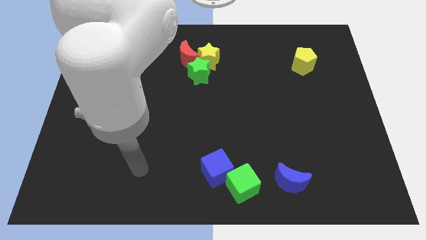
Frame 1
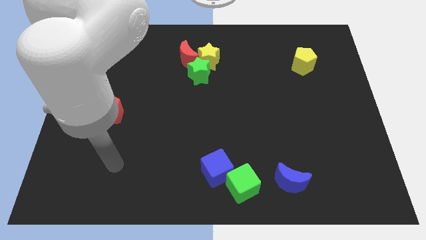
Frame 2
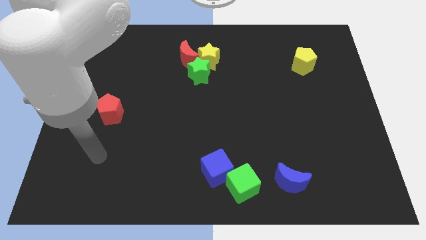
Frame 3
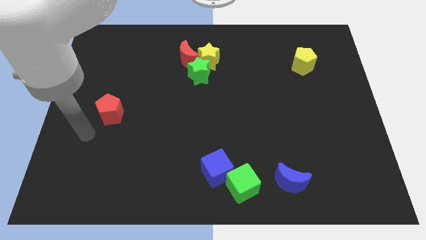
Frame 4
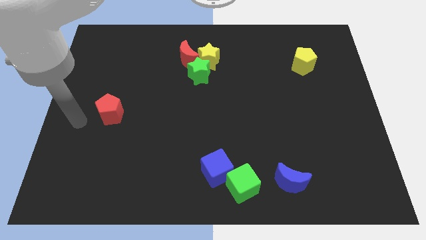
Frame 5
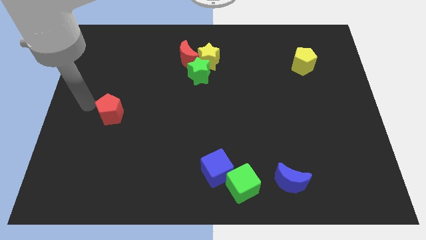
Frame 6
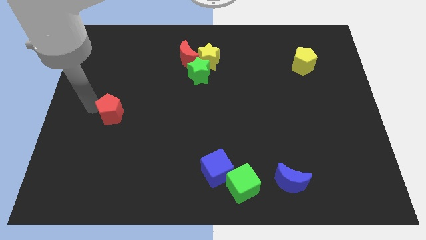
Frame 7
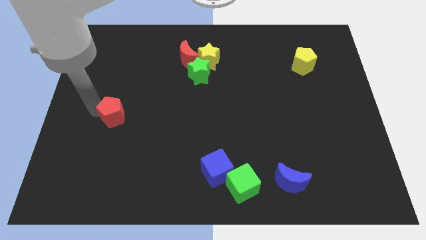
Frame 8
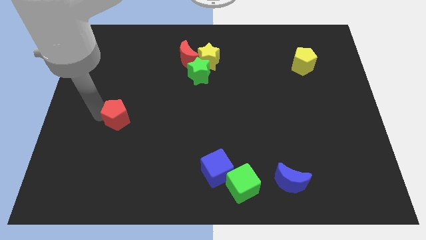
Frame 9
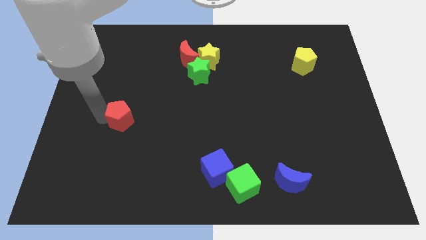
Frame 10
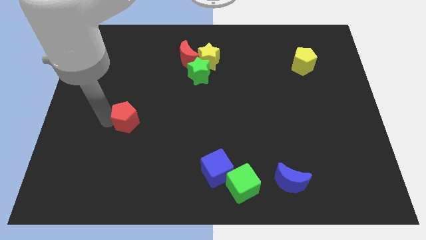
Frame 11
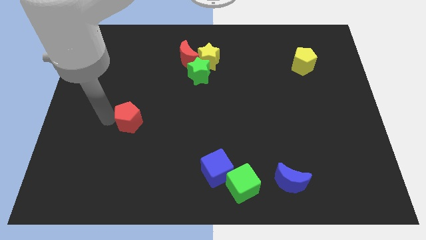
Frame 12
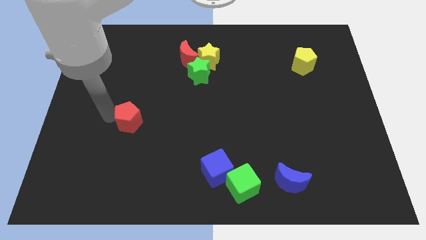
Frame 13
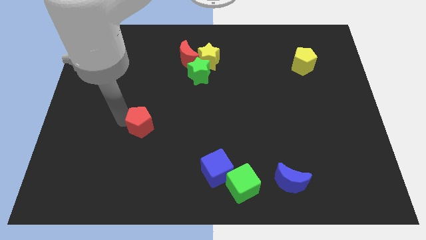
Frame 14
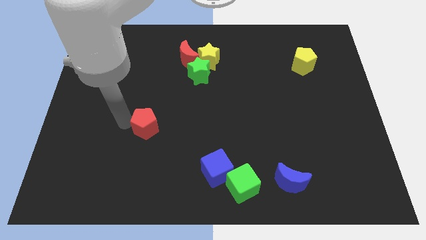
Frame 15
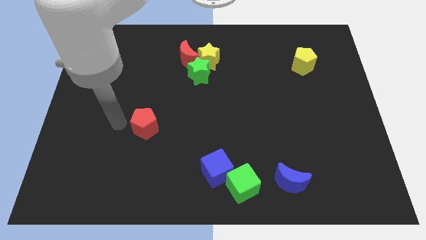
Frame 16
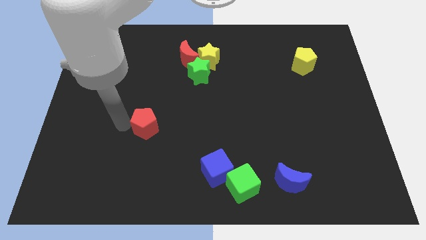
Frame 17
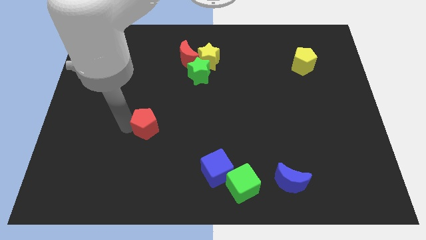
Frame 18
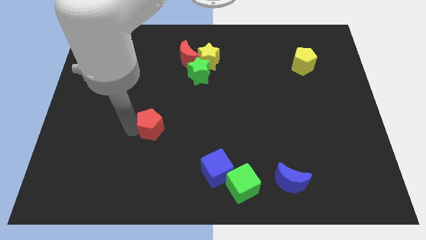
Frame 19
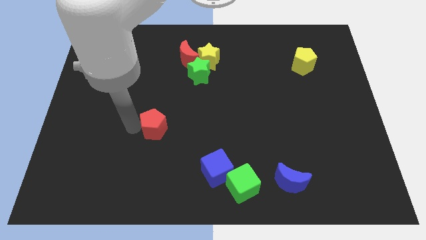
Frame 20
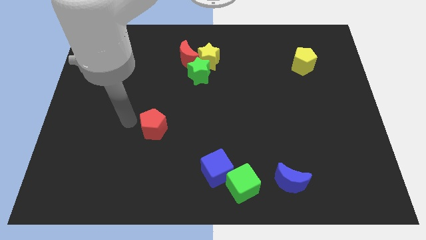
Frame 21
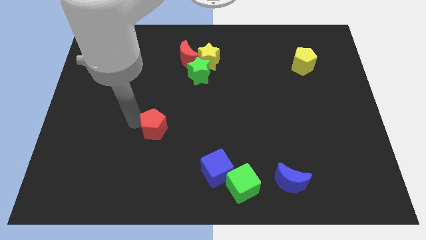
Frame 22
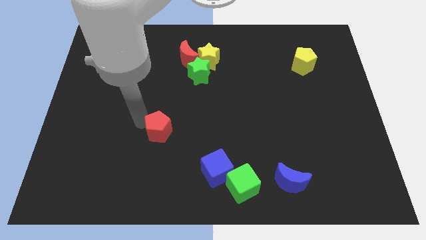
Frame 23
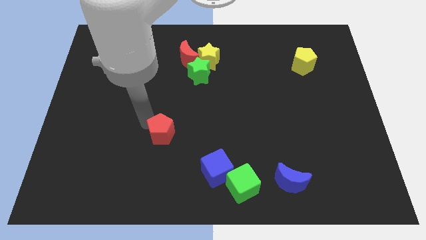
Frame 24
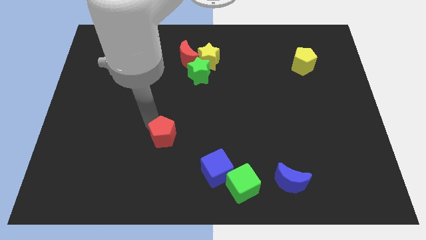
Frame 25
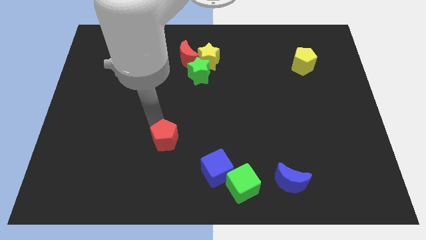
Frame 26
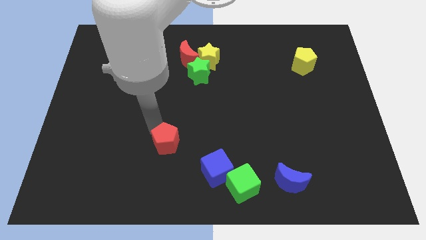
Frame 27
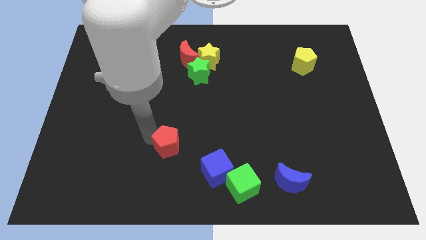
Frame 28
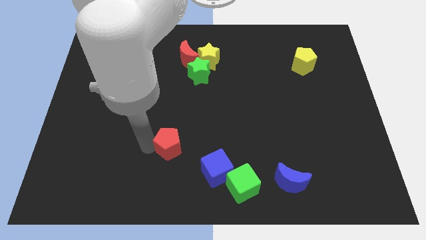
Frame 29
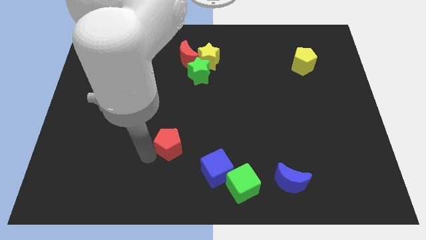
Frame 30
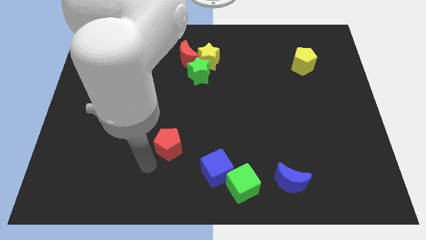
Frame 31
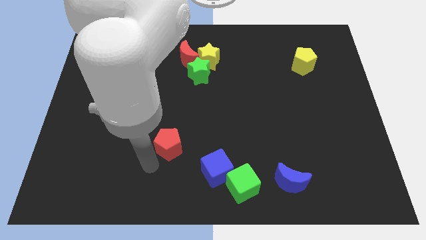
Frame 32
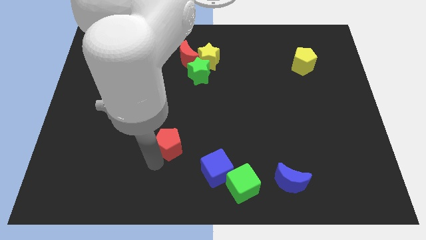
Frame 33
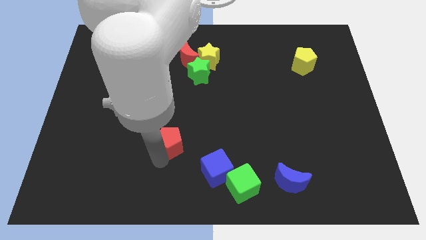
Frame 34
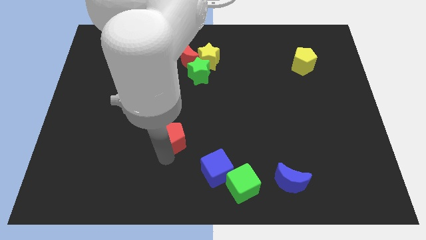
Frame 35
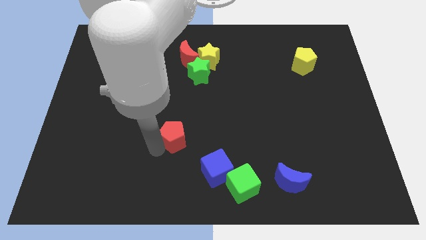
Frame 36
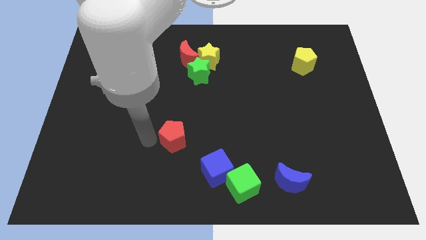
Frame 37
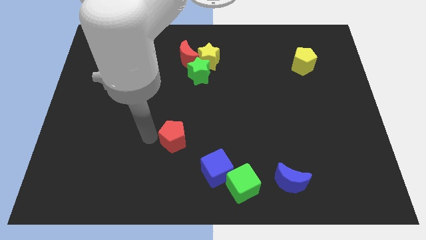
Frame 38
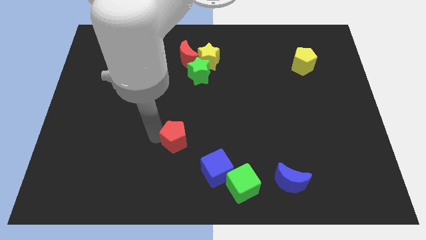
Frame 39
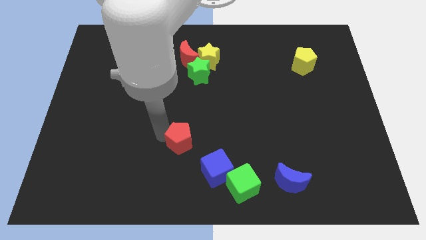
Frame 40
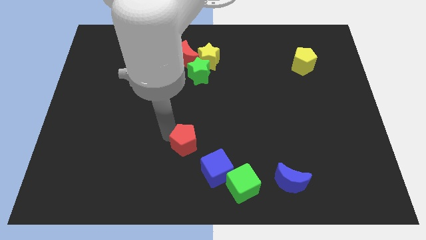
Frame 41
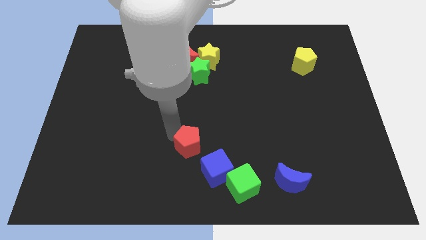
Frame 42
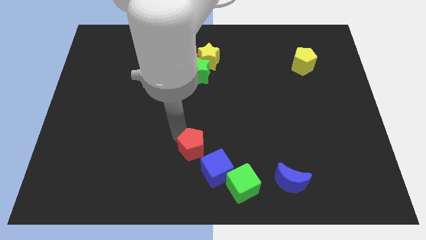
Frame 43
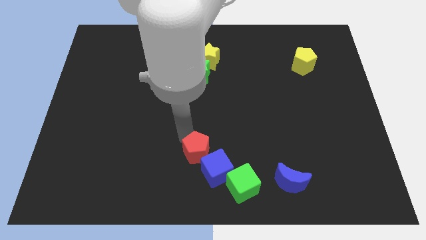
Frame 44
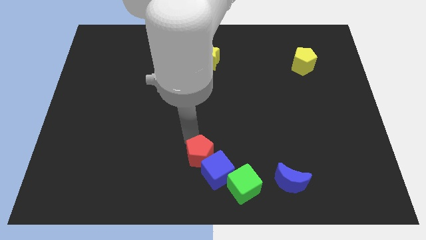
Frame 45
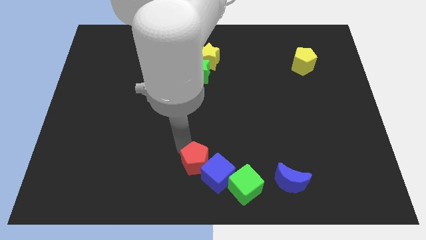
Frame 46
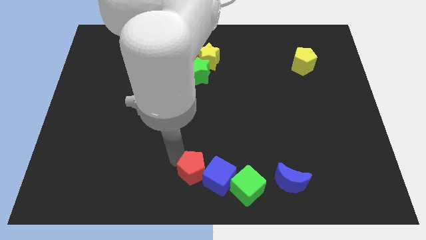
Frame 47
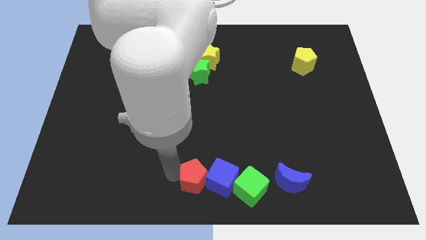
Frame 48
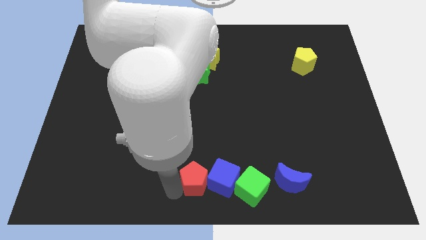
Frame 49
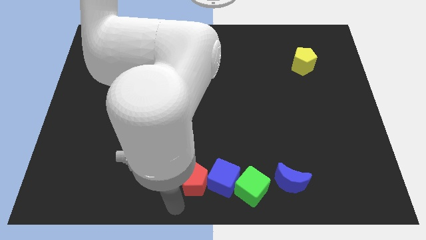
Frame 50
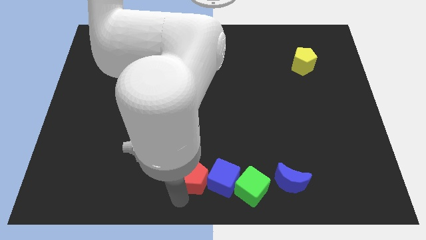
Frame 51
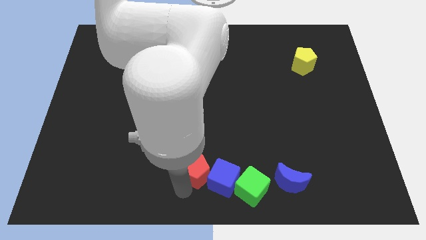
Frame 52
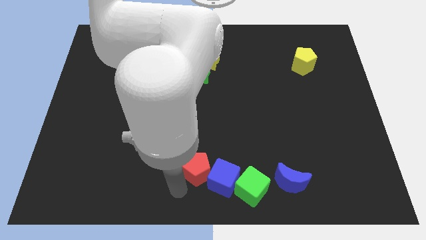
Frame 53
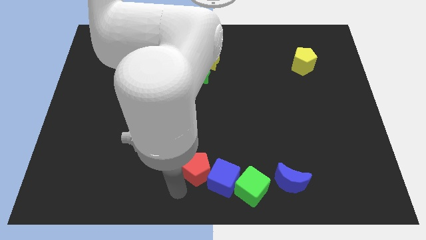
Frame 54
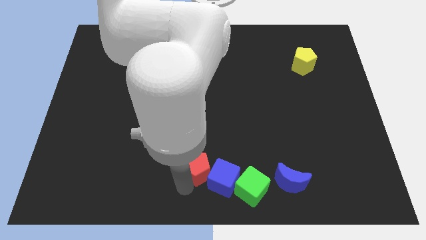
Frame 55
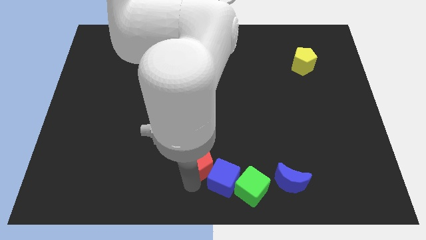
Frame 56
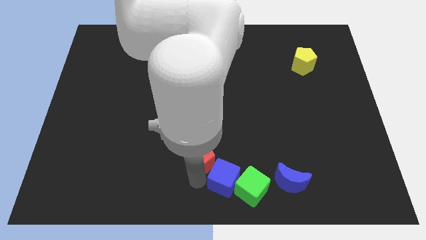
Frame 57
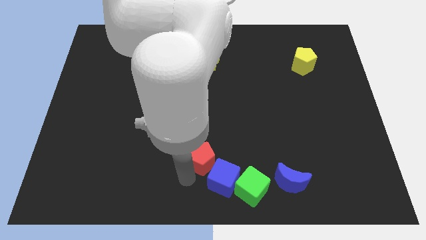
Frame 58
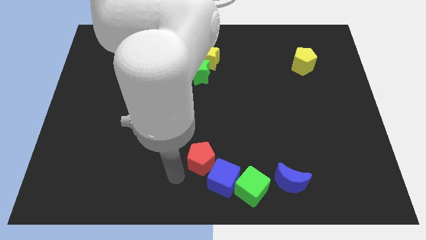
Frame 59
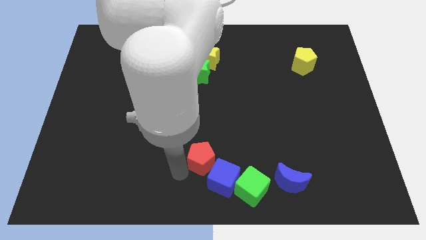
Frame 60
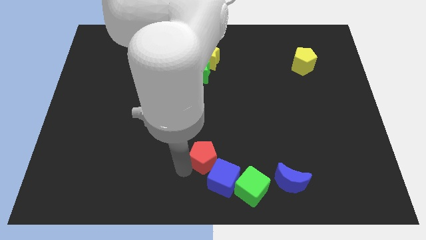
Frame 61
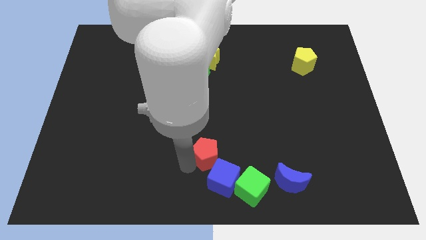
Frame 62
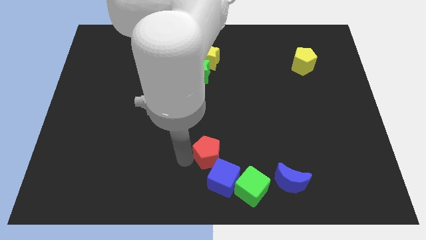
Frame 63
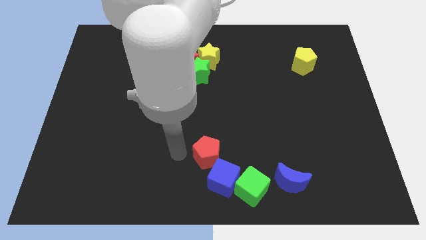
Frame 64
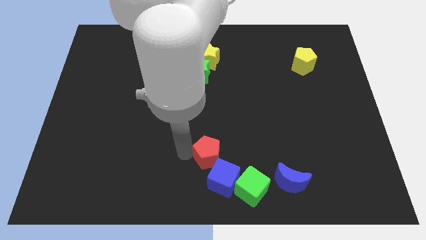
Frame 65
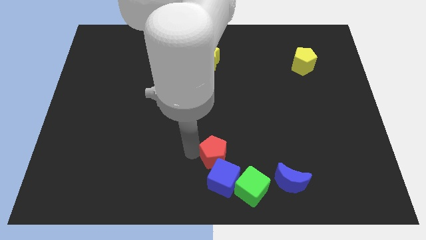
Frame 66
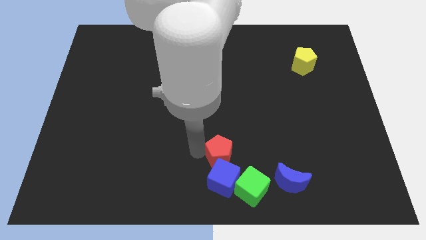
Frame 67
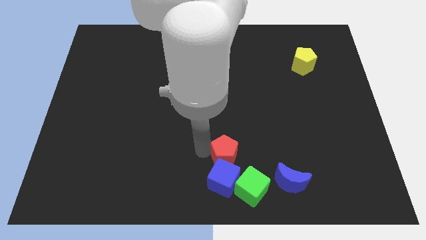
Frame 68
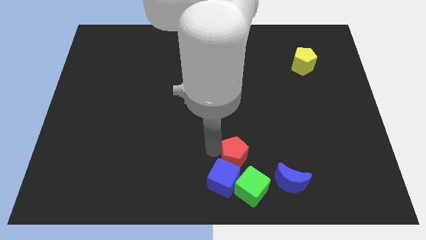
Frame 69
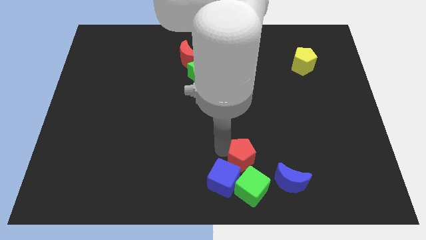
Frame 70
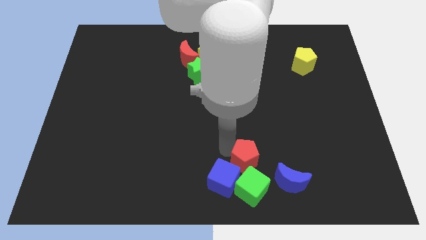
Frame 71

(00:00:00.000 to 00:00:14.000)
put the red pentagon to the right side of the blue cube

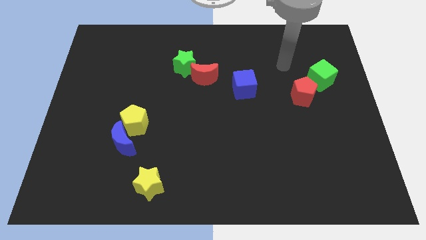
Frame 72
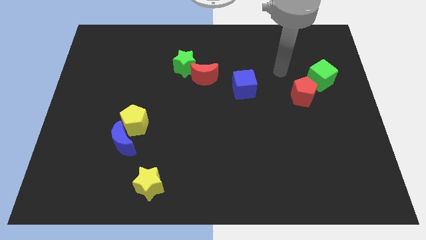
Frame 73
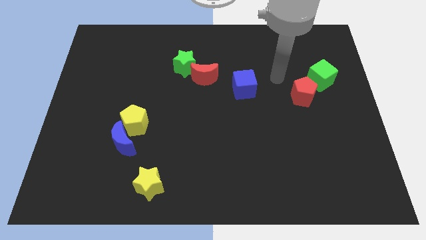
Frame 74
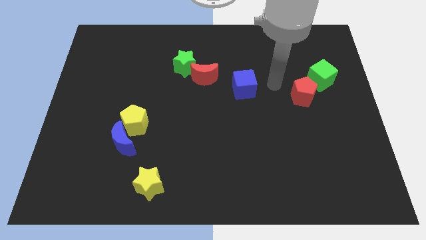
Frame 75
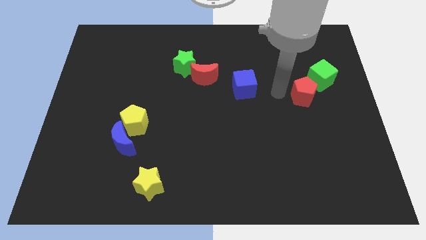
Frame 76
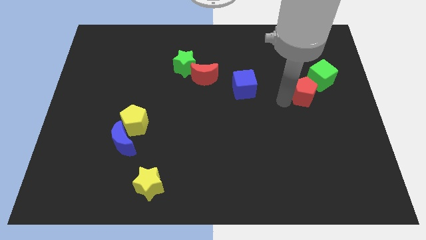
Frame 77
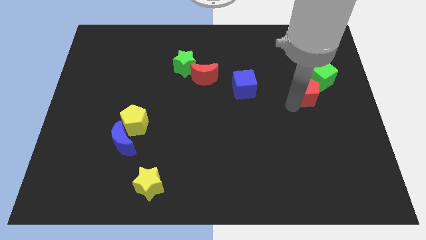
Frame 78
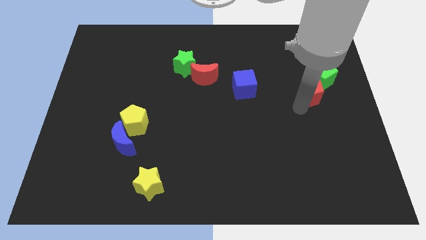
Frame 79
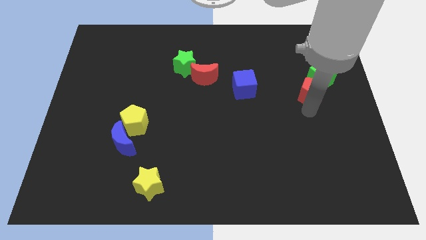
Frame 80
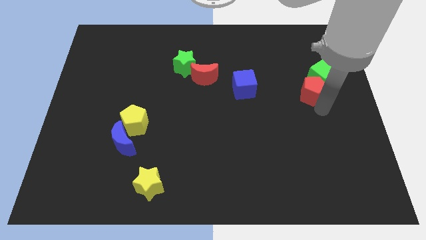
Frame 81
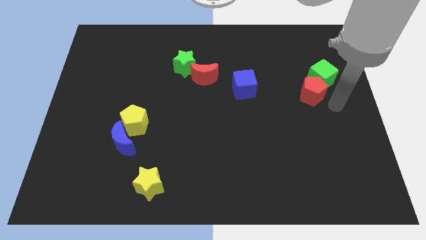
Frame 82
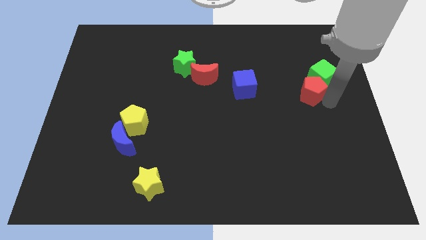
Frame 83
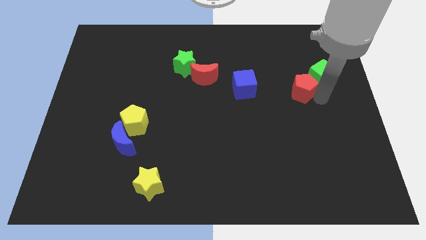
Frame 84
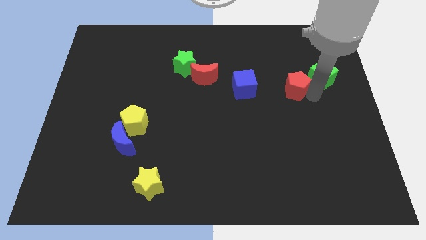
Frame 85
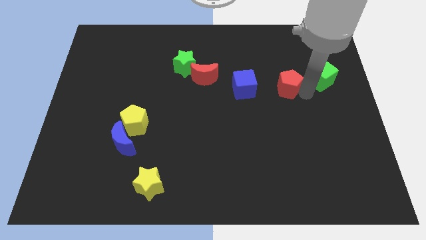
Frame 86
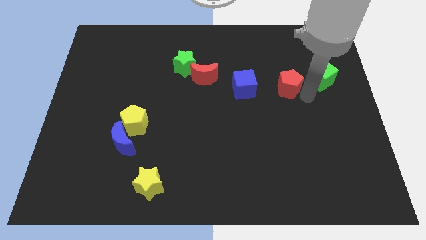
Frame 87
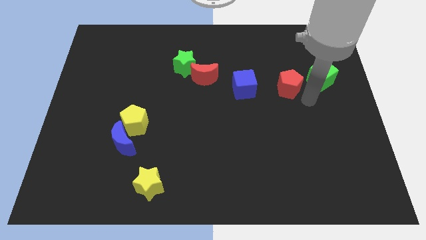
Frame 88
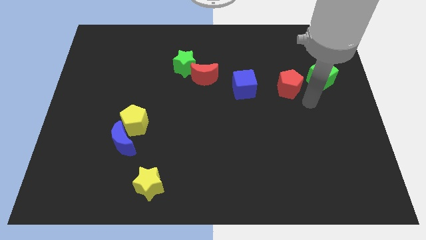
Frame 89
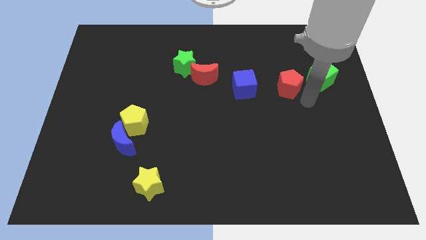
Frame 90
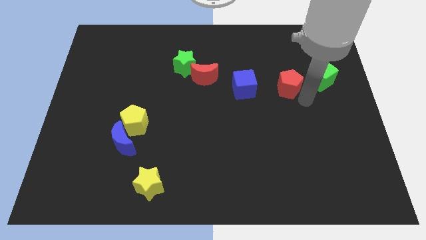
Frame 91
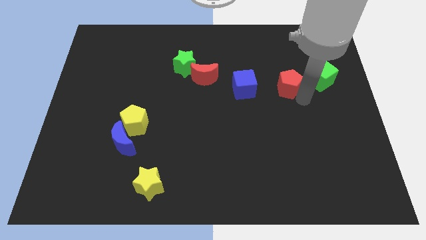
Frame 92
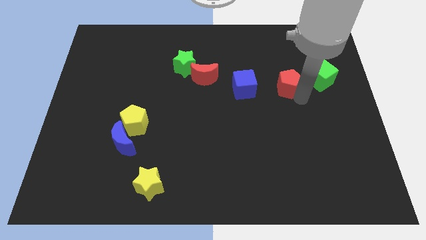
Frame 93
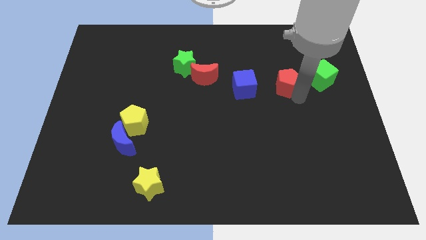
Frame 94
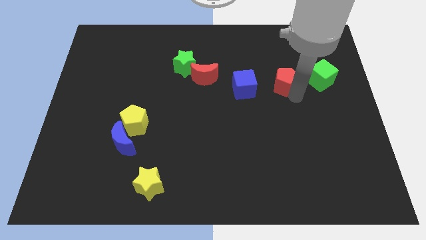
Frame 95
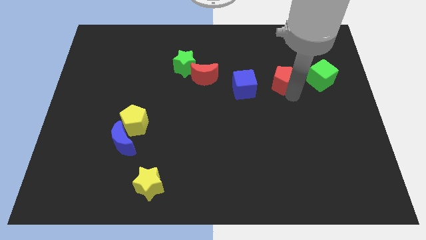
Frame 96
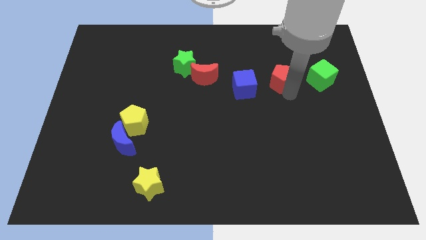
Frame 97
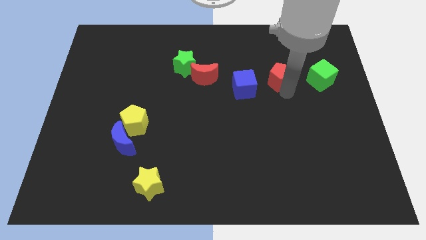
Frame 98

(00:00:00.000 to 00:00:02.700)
move the red pentagon to the top right side of the blue cube
